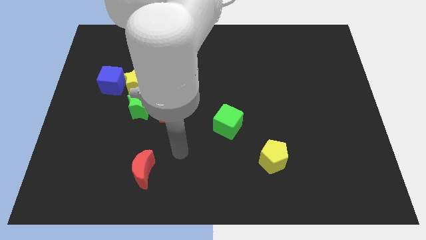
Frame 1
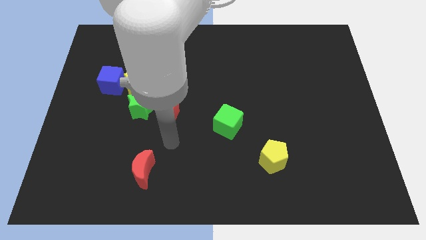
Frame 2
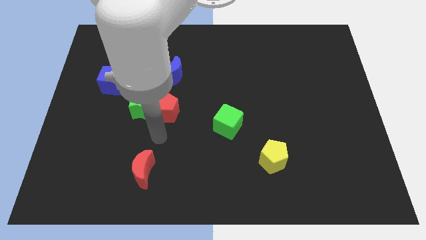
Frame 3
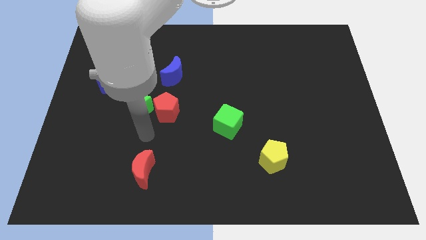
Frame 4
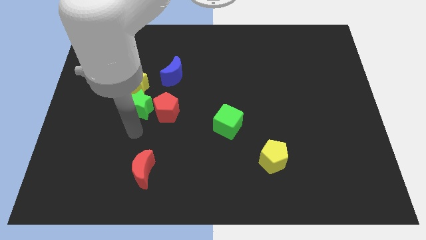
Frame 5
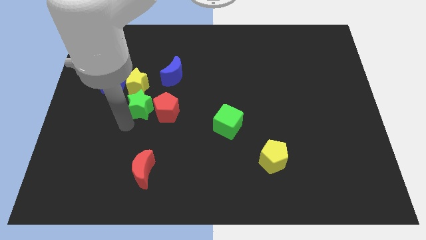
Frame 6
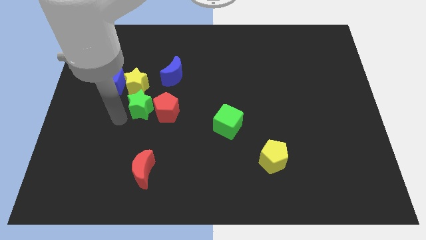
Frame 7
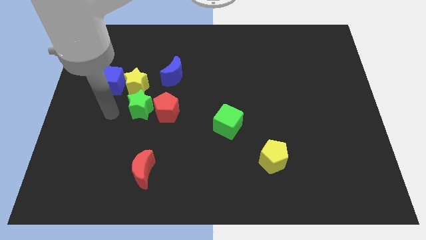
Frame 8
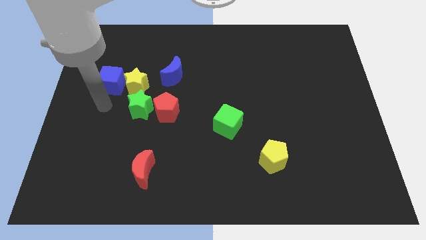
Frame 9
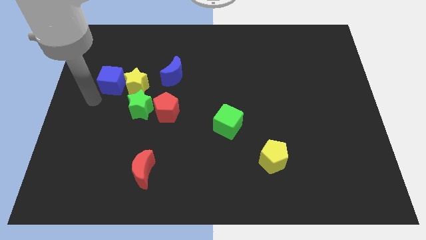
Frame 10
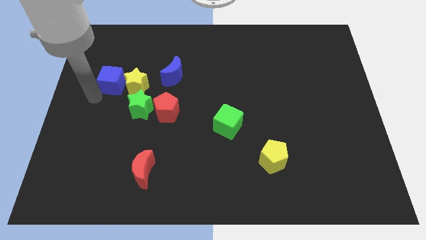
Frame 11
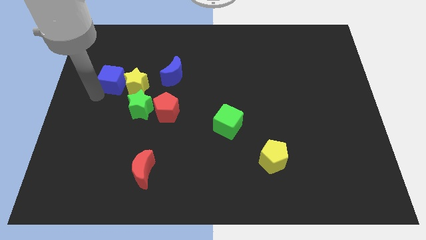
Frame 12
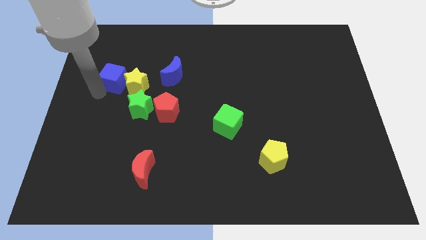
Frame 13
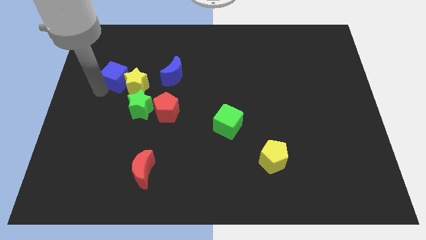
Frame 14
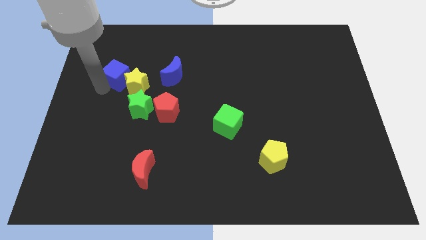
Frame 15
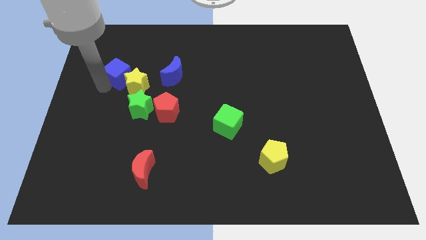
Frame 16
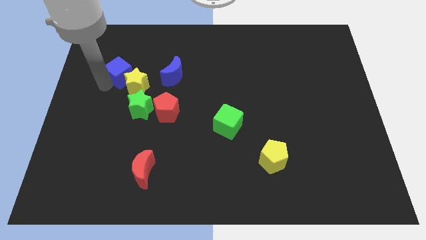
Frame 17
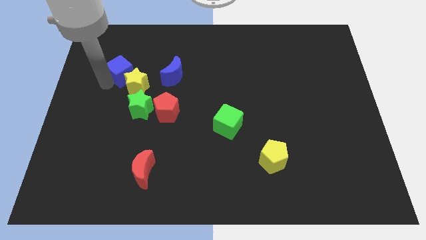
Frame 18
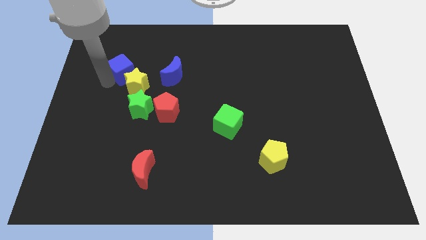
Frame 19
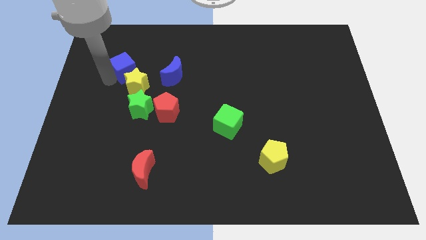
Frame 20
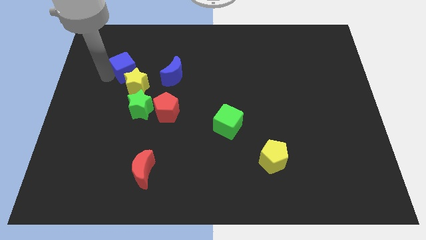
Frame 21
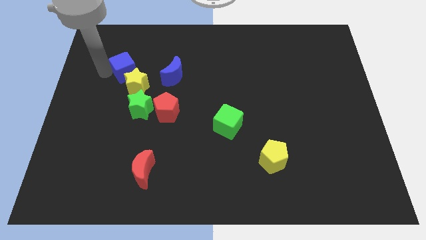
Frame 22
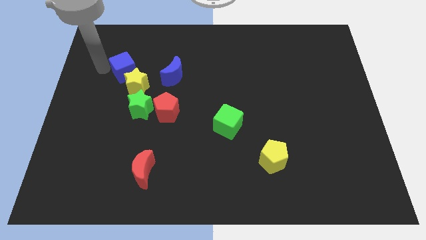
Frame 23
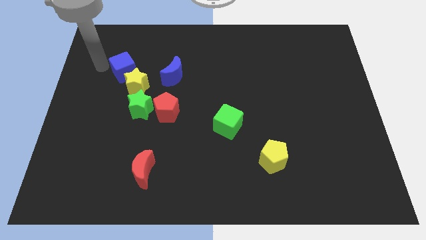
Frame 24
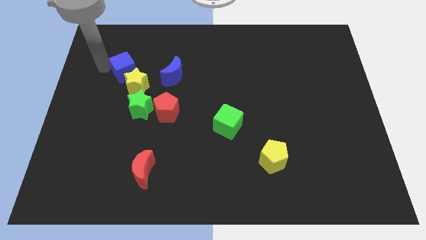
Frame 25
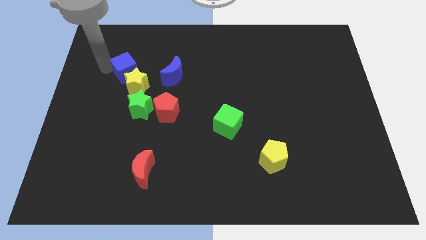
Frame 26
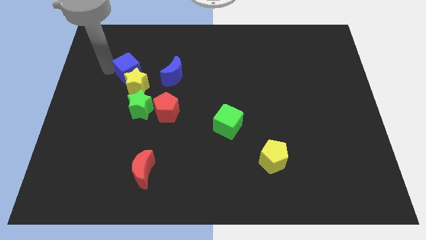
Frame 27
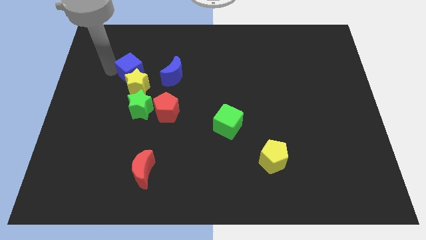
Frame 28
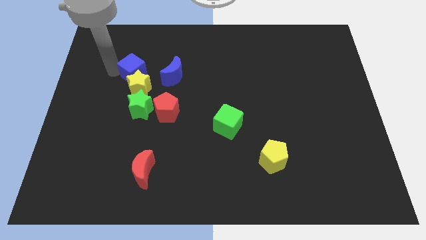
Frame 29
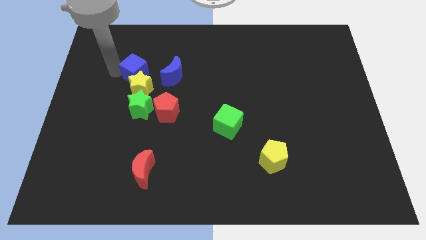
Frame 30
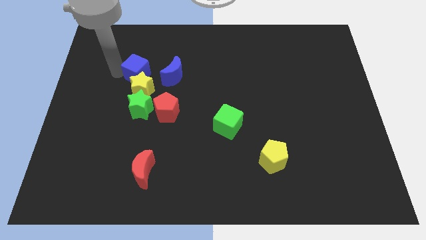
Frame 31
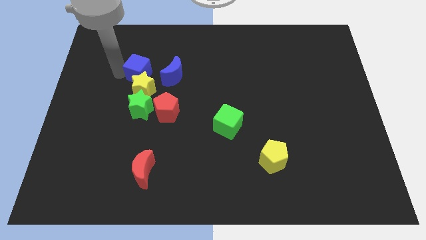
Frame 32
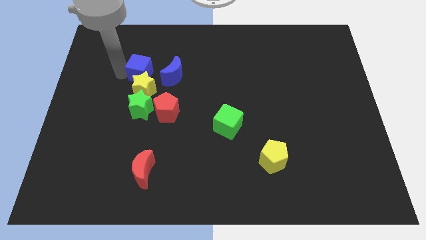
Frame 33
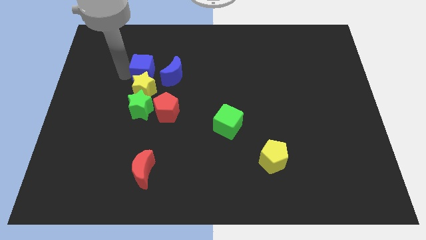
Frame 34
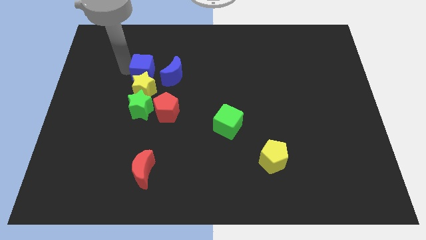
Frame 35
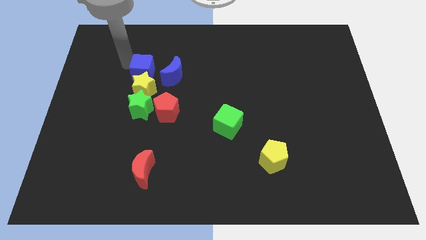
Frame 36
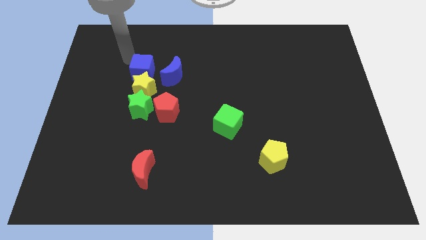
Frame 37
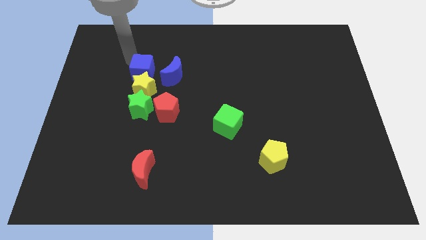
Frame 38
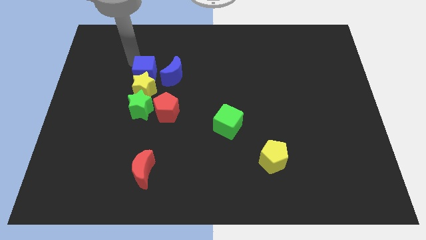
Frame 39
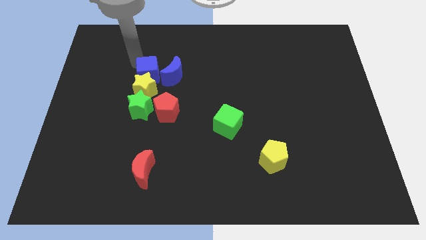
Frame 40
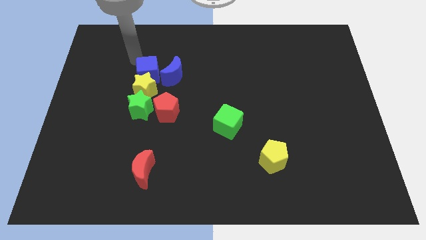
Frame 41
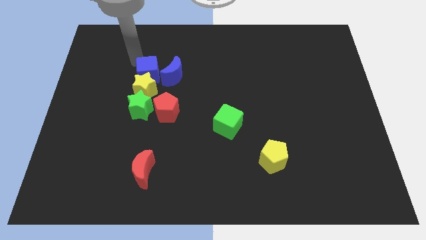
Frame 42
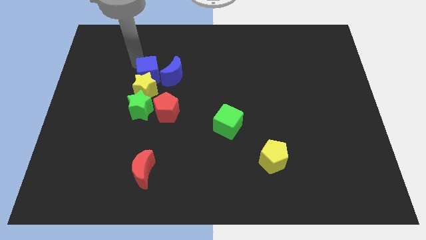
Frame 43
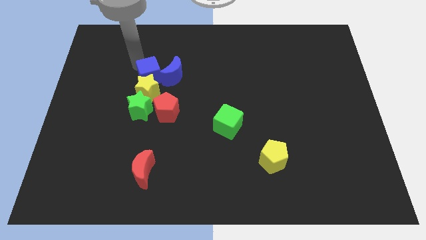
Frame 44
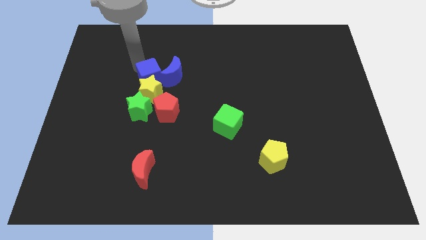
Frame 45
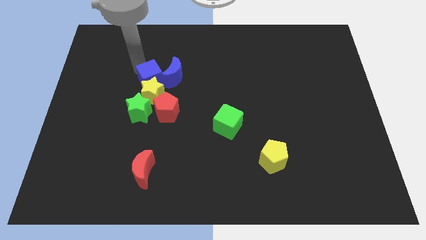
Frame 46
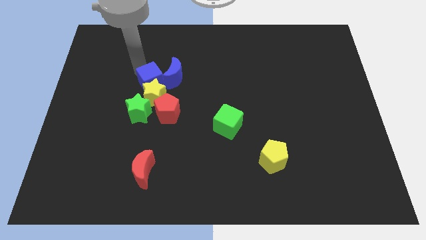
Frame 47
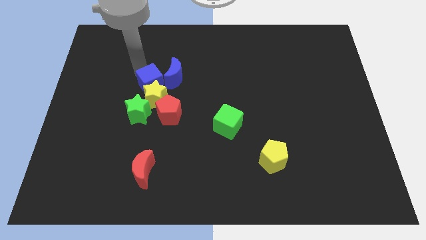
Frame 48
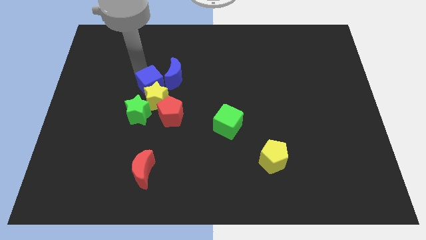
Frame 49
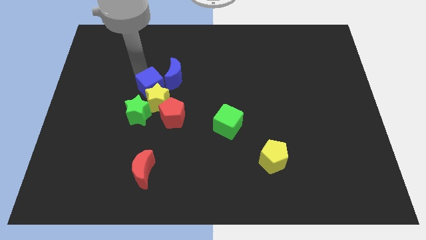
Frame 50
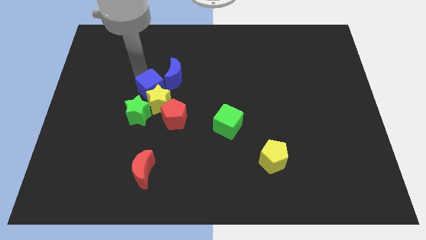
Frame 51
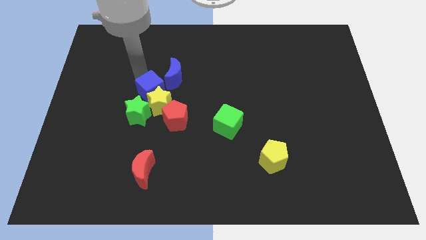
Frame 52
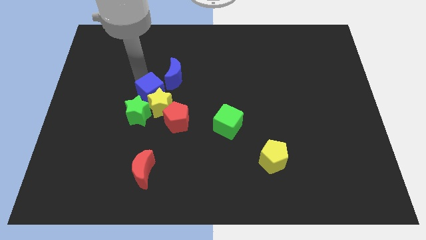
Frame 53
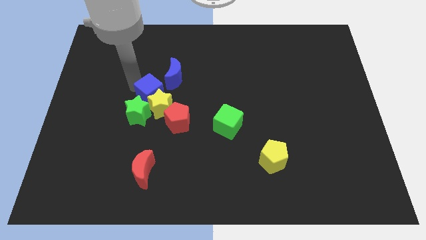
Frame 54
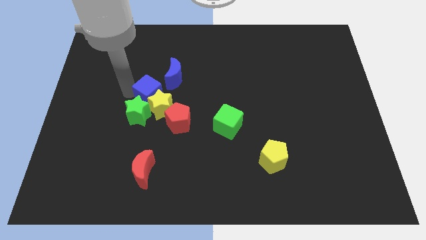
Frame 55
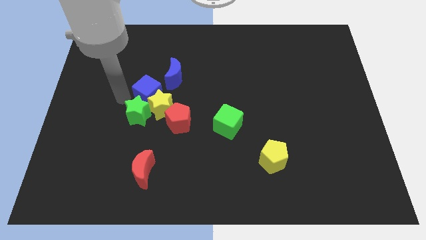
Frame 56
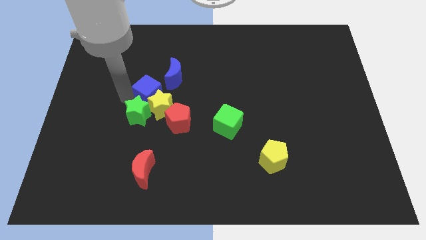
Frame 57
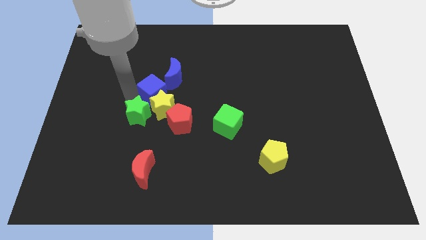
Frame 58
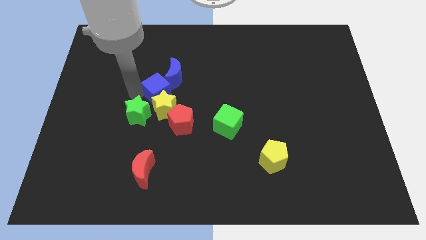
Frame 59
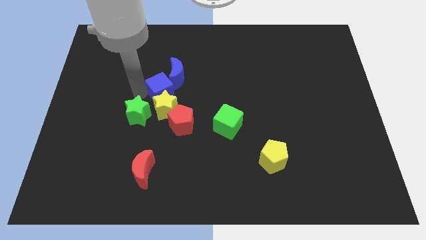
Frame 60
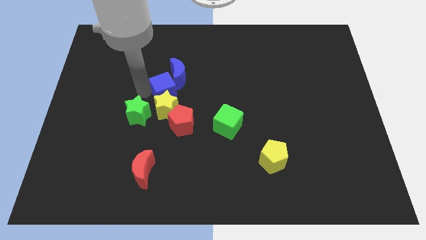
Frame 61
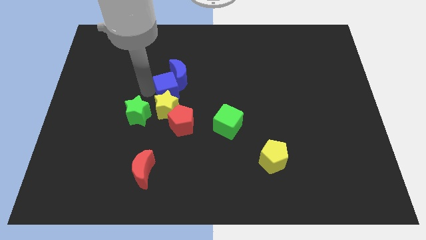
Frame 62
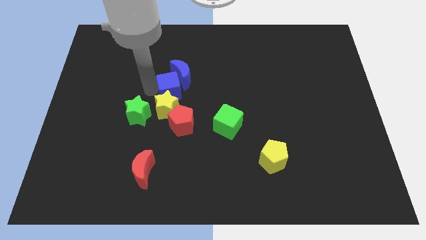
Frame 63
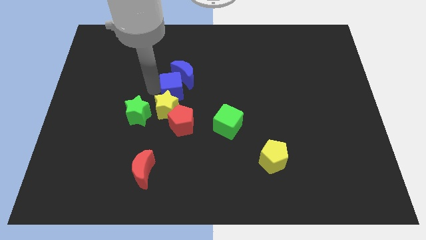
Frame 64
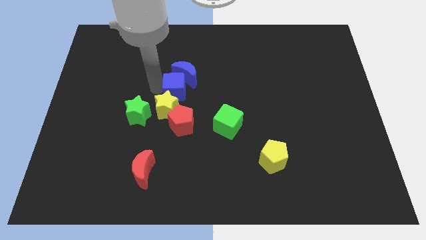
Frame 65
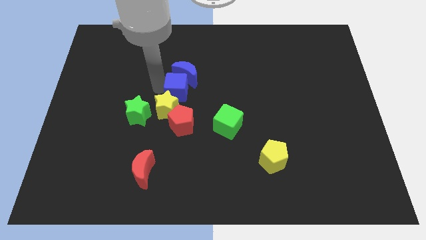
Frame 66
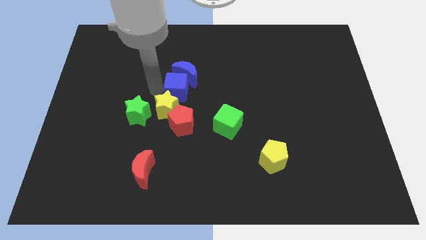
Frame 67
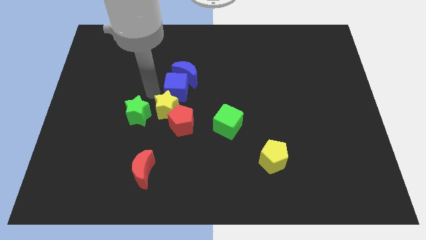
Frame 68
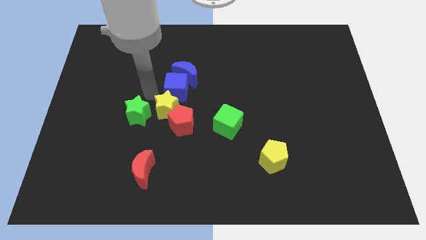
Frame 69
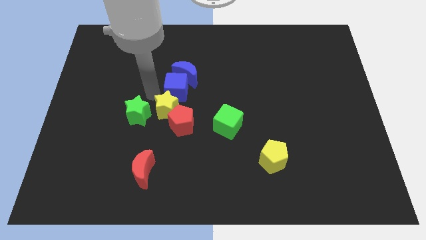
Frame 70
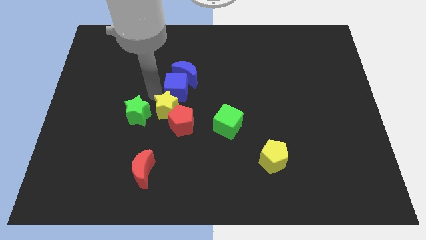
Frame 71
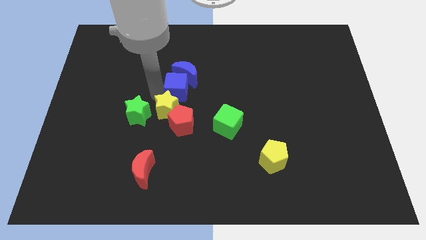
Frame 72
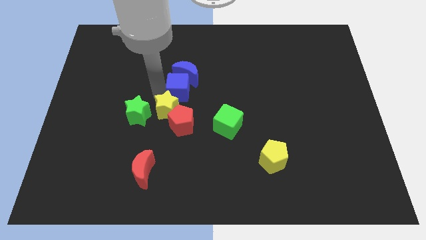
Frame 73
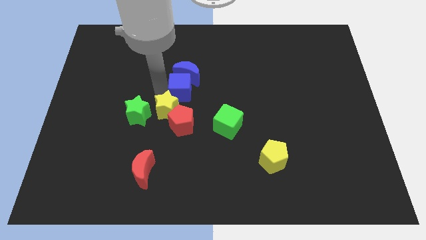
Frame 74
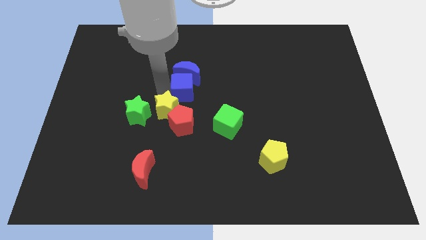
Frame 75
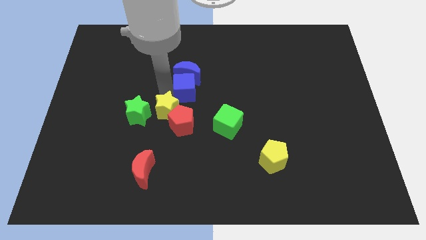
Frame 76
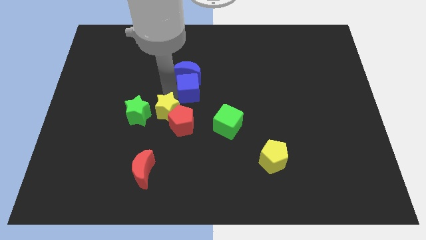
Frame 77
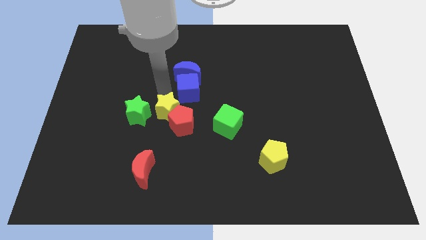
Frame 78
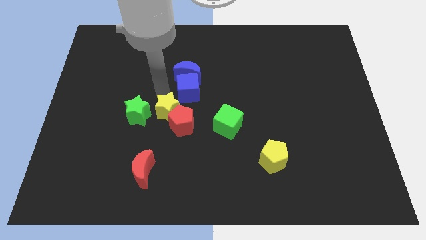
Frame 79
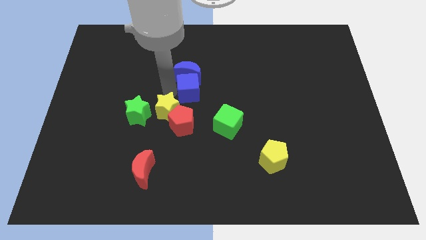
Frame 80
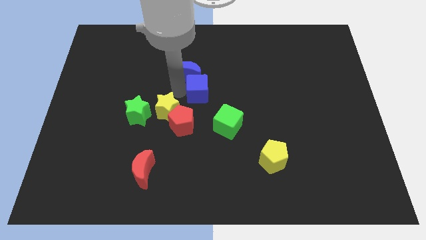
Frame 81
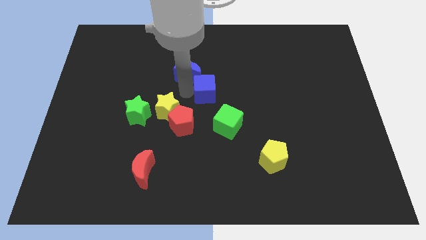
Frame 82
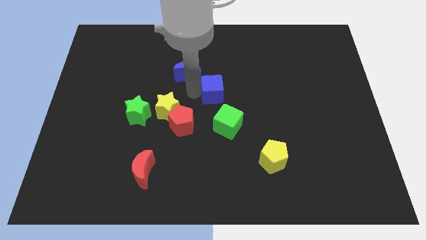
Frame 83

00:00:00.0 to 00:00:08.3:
move the blue cube to the top side of the green cube
